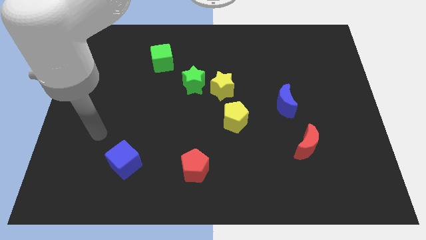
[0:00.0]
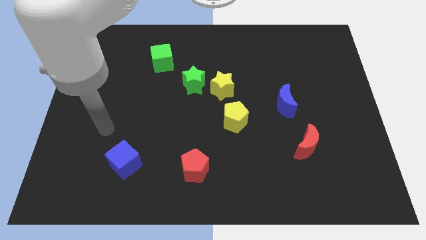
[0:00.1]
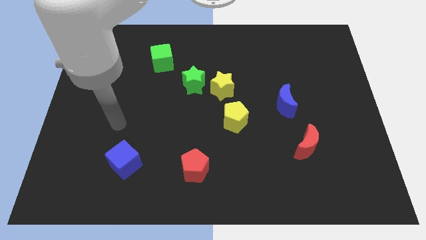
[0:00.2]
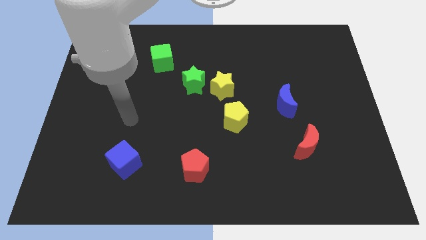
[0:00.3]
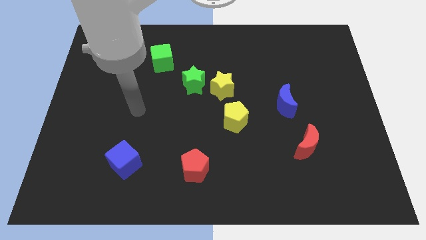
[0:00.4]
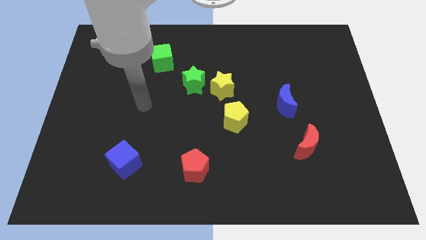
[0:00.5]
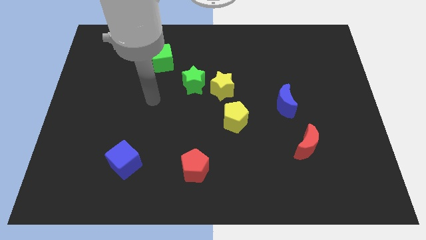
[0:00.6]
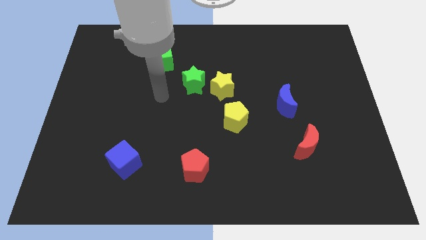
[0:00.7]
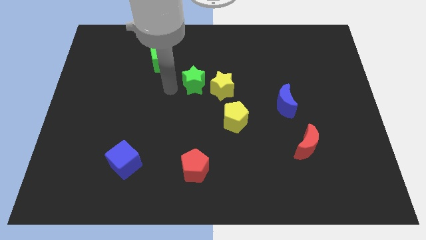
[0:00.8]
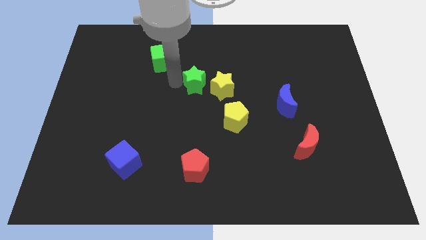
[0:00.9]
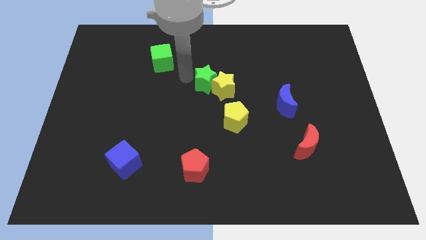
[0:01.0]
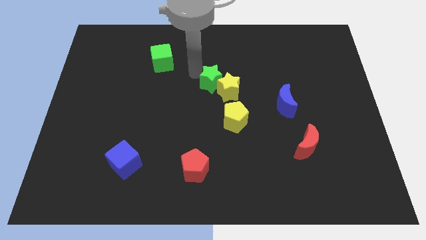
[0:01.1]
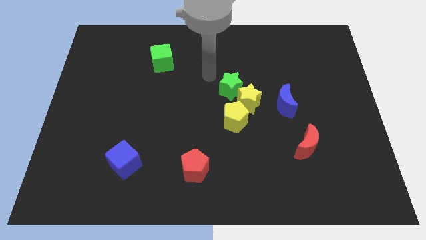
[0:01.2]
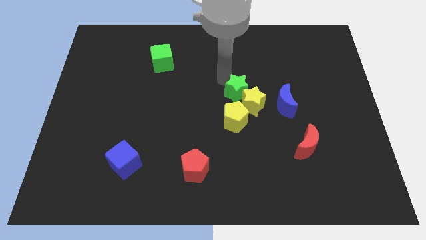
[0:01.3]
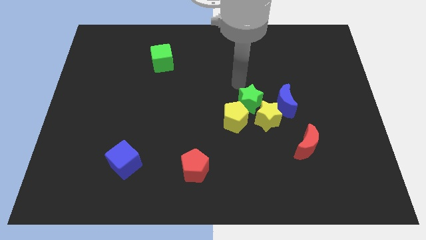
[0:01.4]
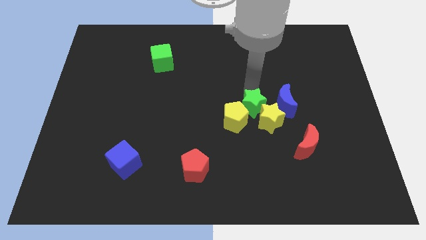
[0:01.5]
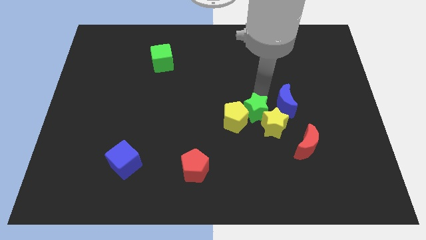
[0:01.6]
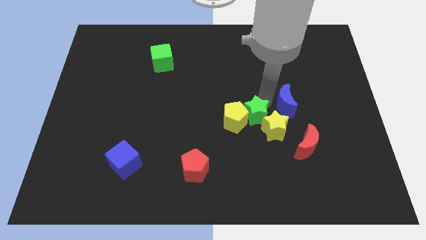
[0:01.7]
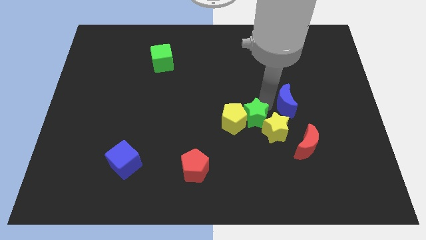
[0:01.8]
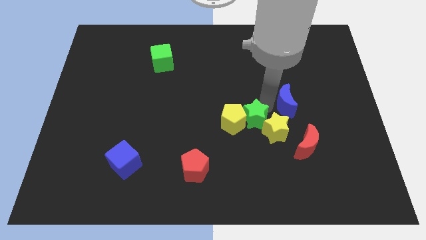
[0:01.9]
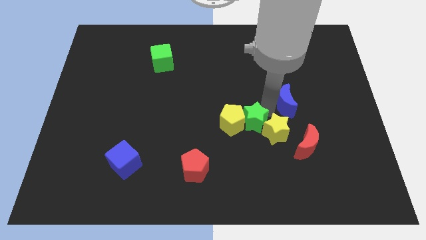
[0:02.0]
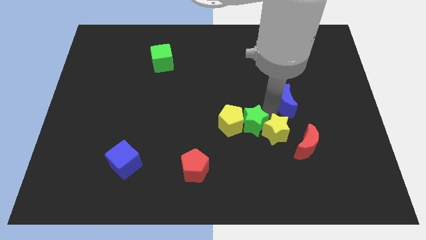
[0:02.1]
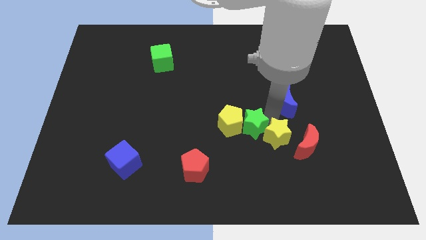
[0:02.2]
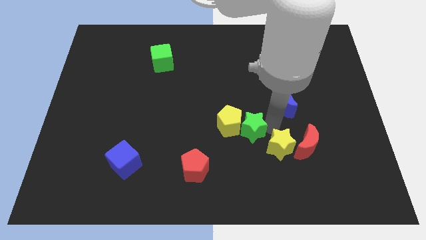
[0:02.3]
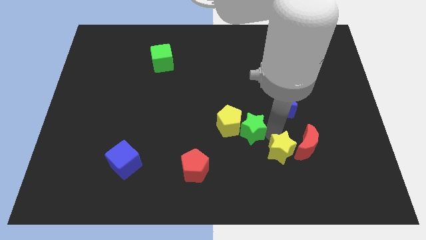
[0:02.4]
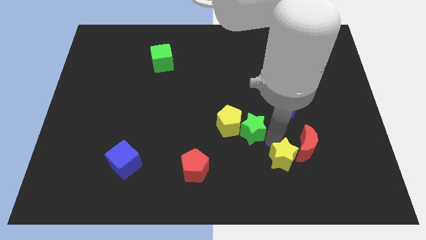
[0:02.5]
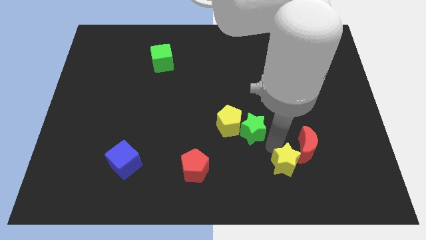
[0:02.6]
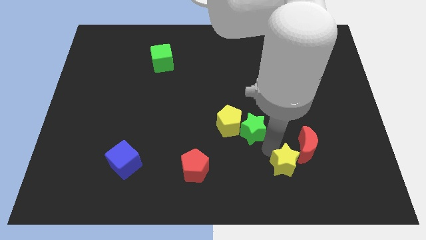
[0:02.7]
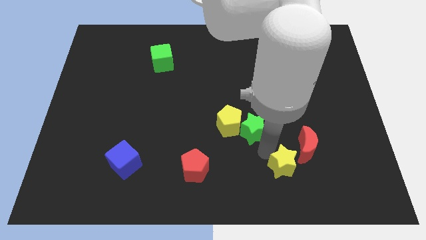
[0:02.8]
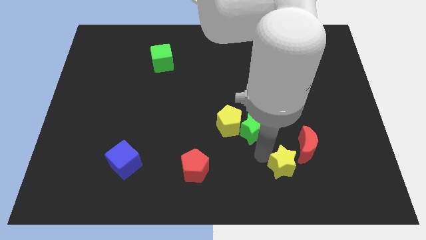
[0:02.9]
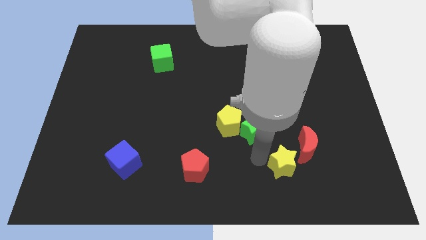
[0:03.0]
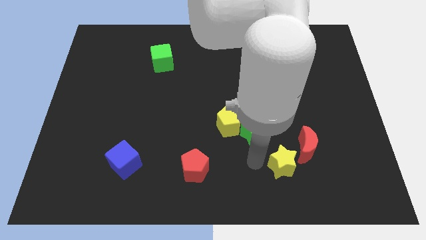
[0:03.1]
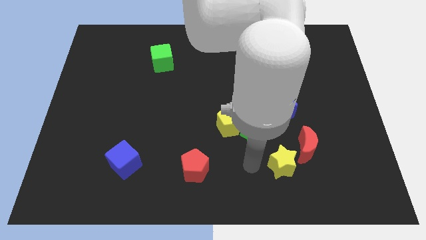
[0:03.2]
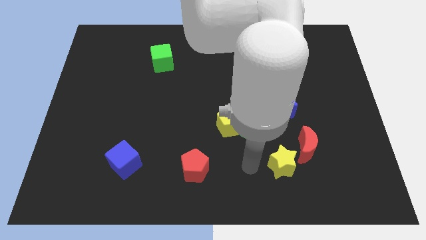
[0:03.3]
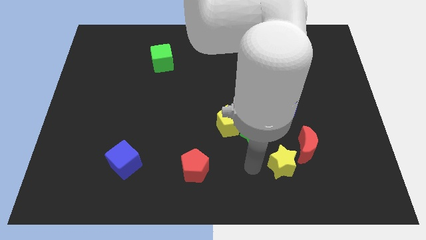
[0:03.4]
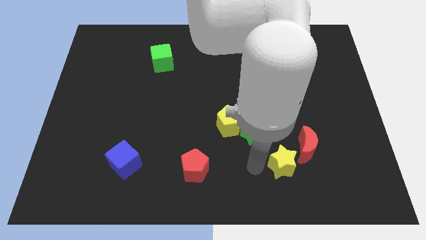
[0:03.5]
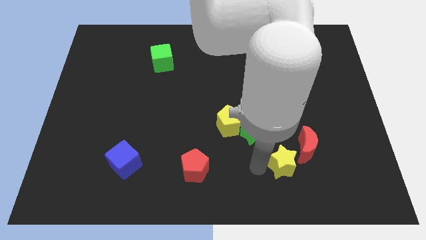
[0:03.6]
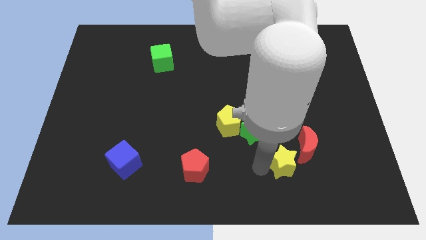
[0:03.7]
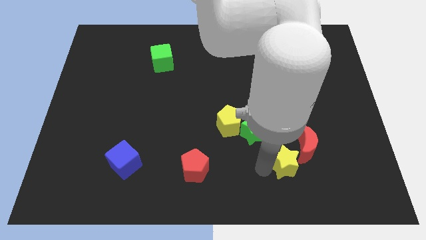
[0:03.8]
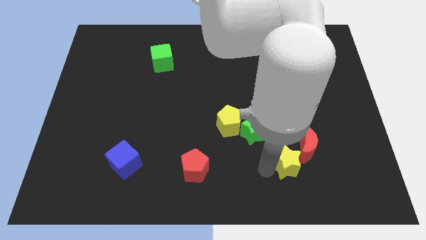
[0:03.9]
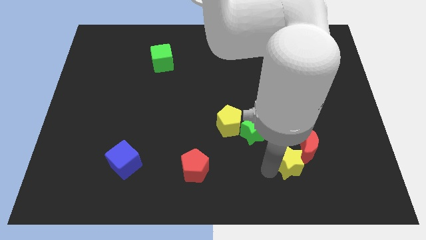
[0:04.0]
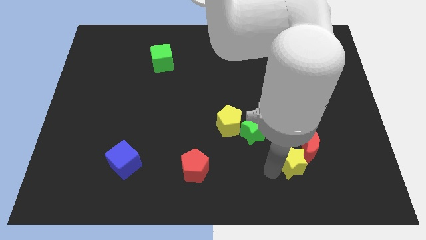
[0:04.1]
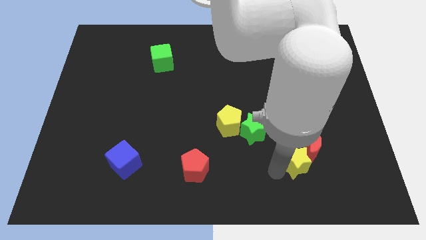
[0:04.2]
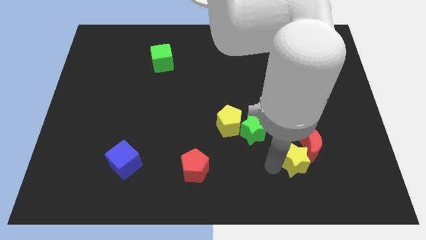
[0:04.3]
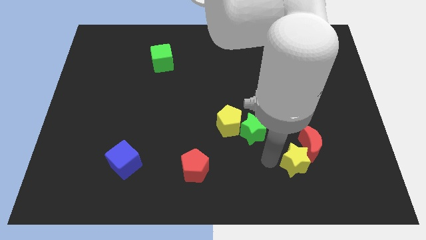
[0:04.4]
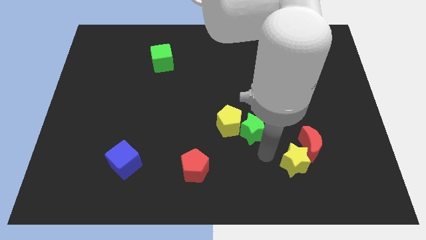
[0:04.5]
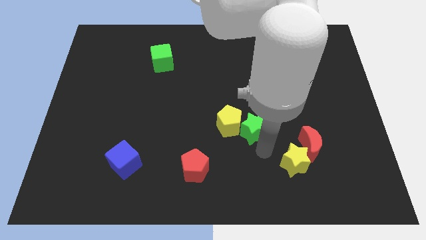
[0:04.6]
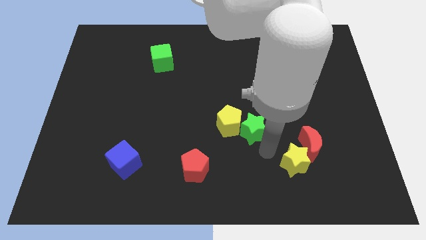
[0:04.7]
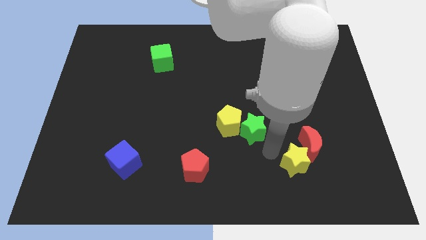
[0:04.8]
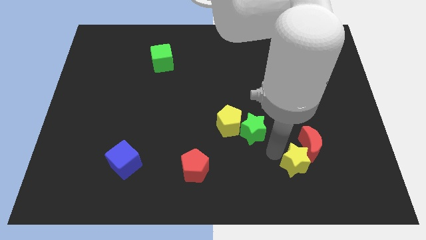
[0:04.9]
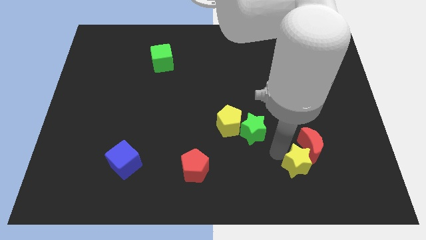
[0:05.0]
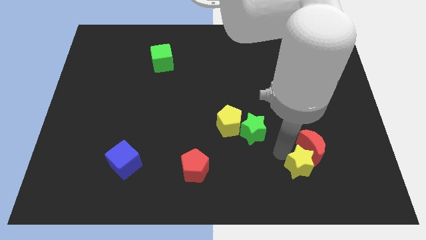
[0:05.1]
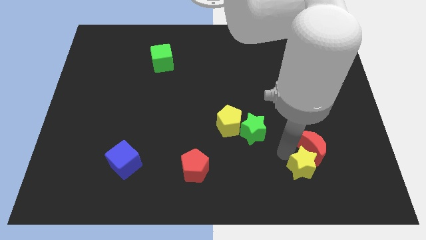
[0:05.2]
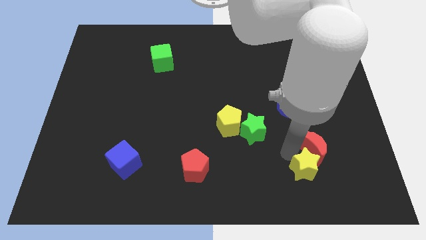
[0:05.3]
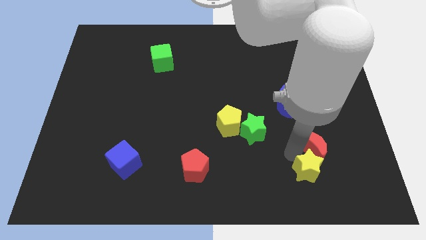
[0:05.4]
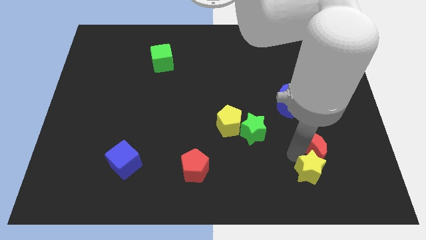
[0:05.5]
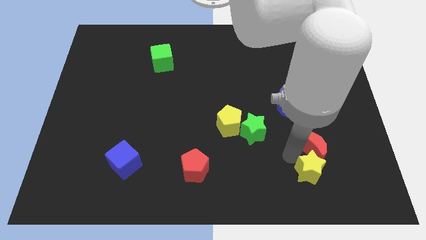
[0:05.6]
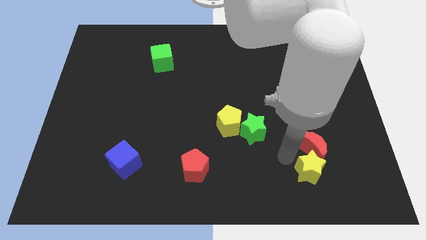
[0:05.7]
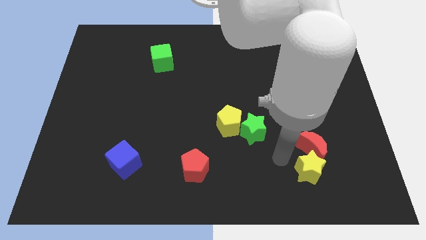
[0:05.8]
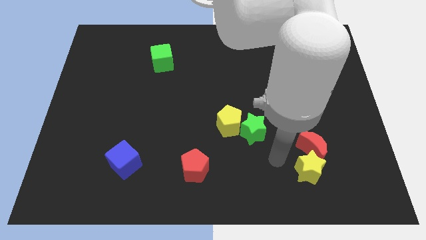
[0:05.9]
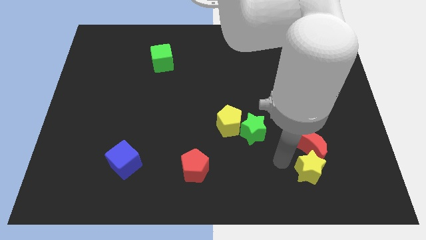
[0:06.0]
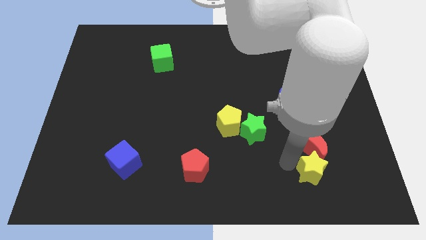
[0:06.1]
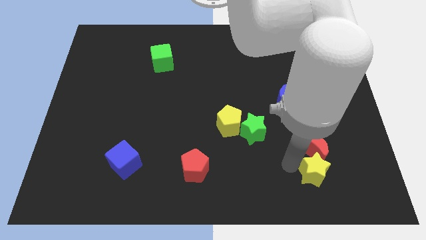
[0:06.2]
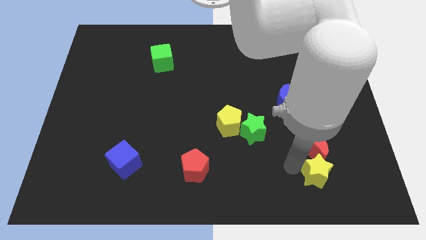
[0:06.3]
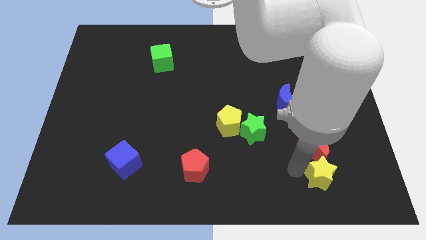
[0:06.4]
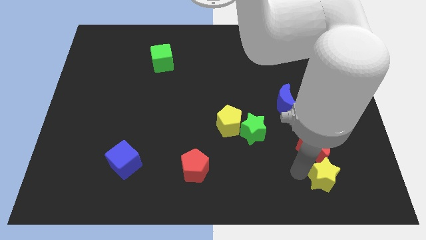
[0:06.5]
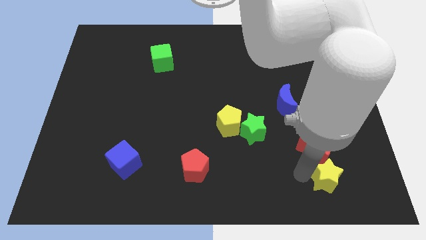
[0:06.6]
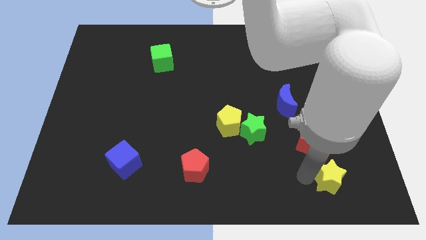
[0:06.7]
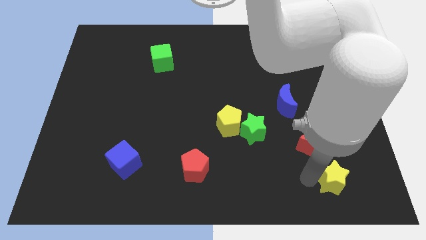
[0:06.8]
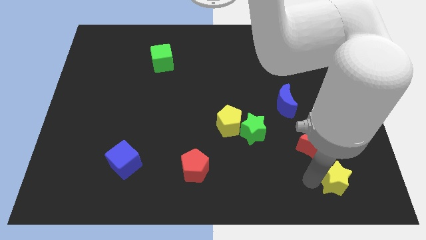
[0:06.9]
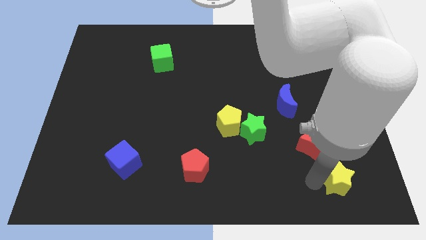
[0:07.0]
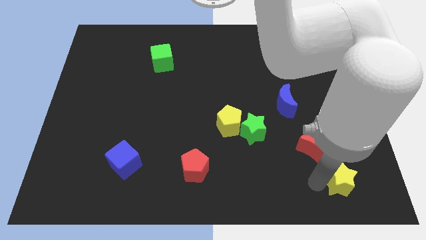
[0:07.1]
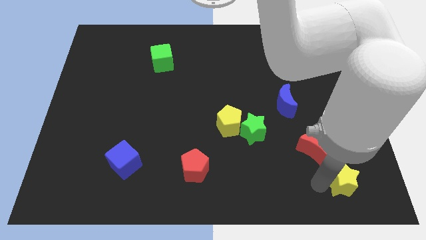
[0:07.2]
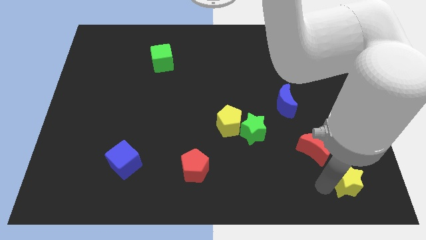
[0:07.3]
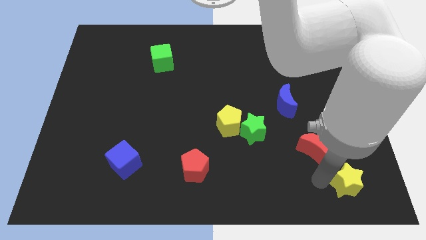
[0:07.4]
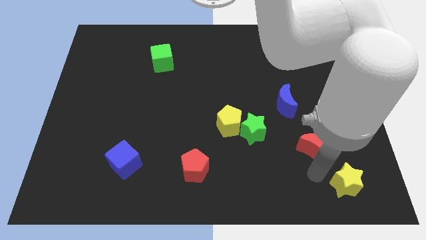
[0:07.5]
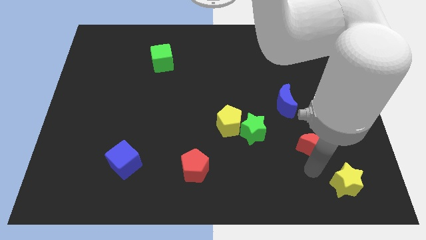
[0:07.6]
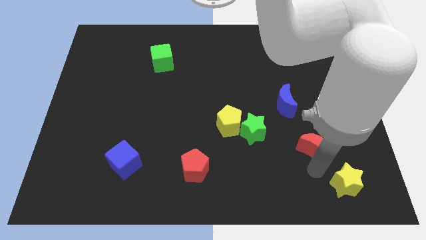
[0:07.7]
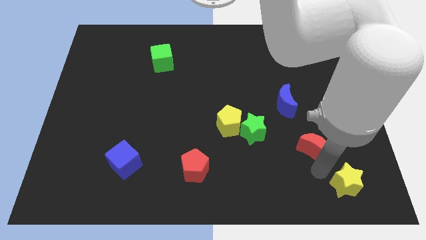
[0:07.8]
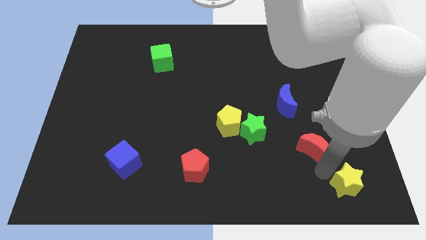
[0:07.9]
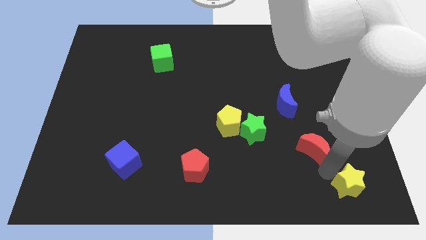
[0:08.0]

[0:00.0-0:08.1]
push the yellow star to the bottom right corner
